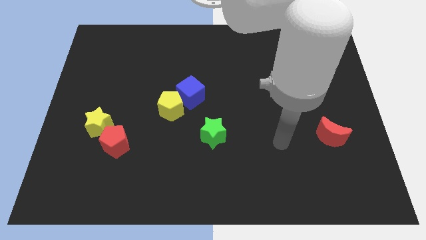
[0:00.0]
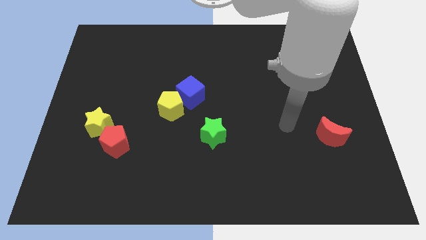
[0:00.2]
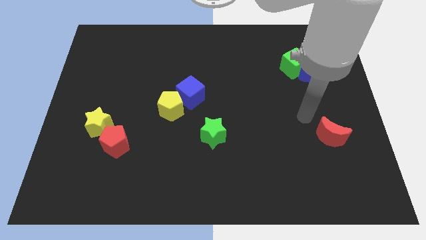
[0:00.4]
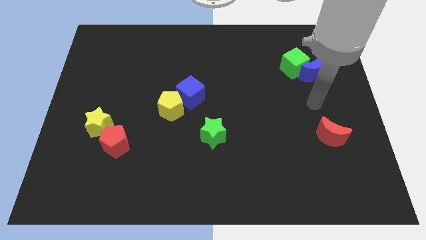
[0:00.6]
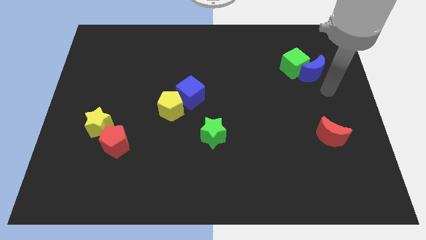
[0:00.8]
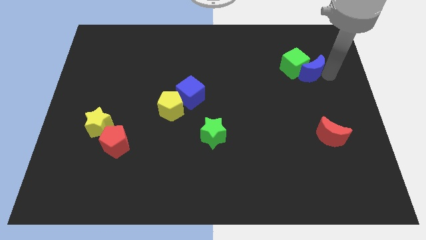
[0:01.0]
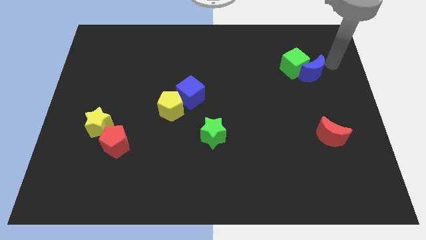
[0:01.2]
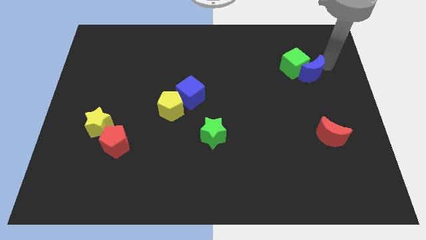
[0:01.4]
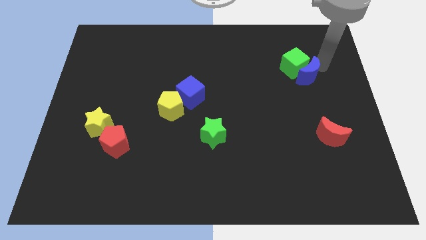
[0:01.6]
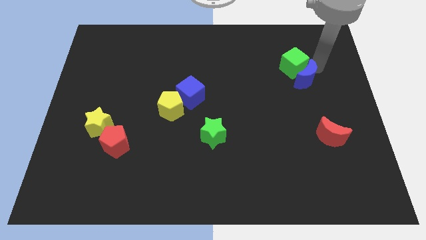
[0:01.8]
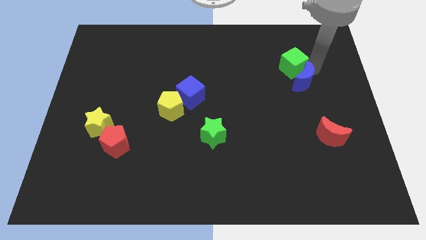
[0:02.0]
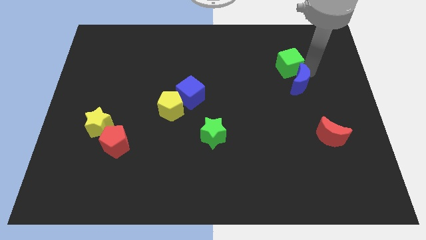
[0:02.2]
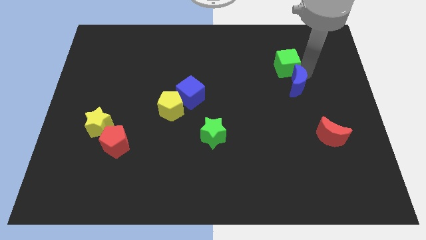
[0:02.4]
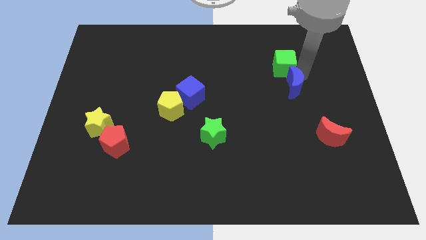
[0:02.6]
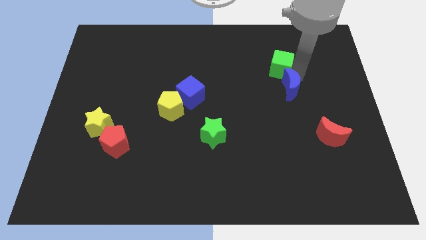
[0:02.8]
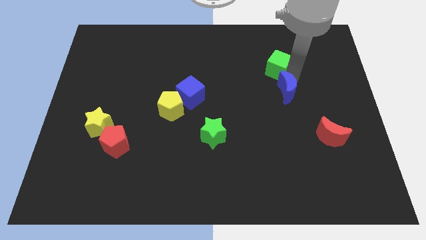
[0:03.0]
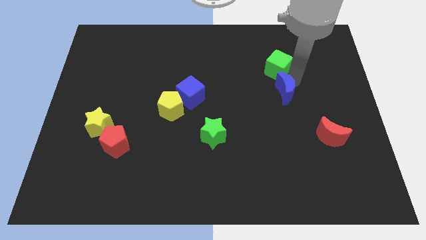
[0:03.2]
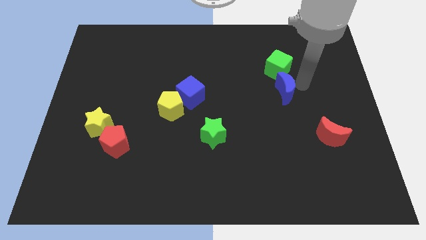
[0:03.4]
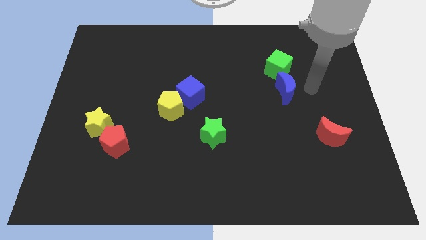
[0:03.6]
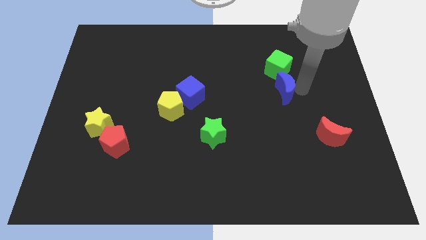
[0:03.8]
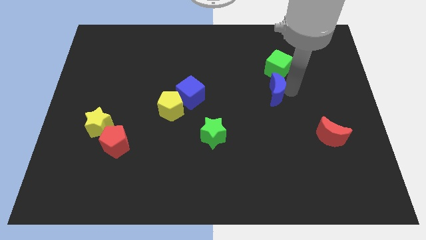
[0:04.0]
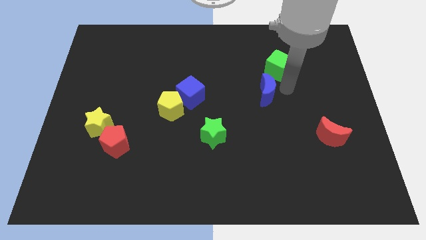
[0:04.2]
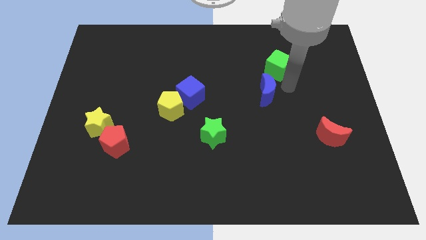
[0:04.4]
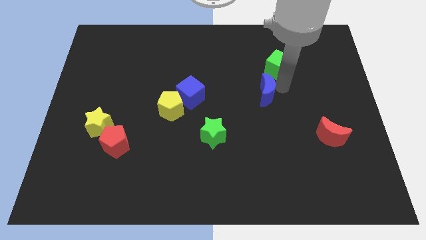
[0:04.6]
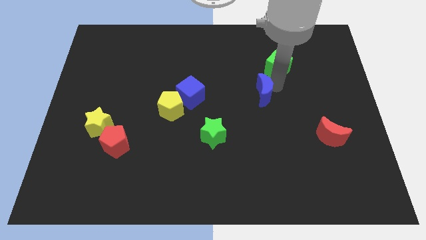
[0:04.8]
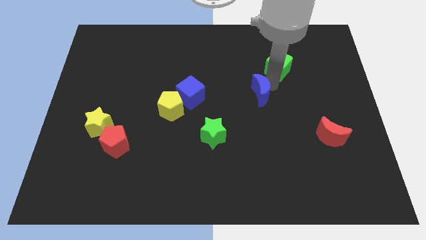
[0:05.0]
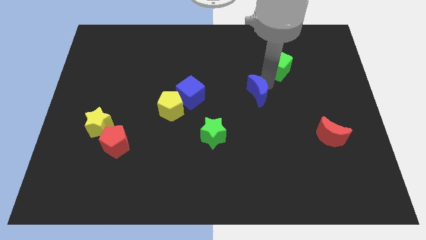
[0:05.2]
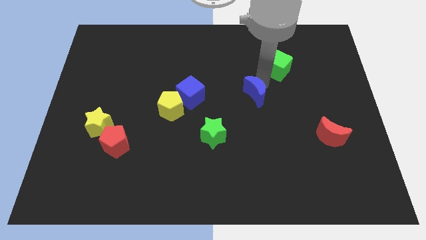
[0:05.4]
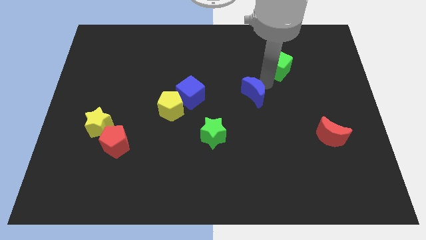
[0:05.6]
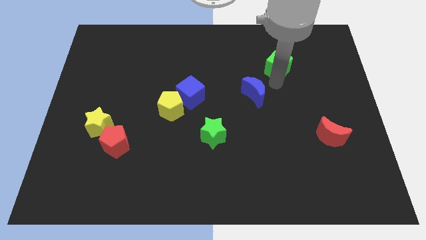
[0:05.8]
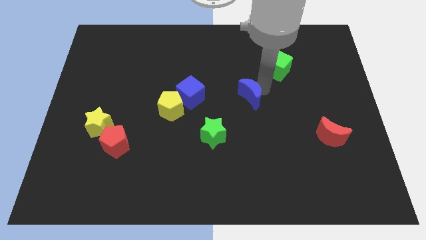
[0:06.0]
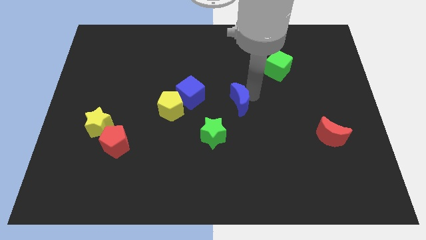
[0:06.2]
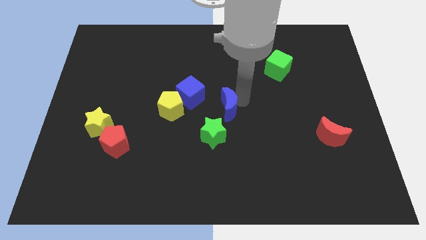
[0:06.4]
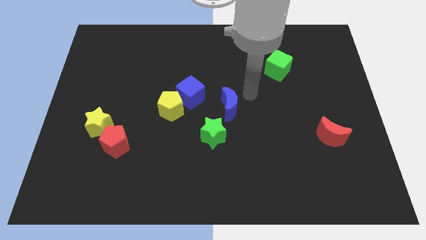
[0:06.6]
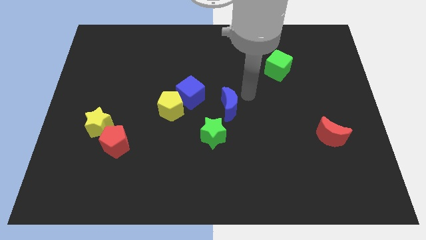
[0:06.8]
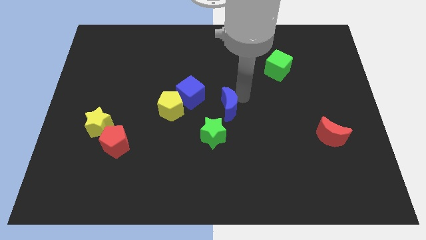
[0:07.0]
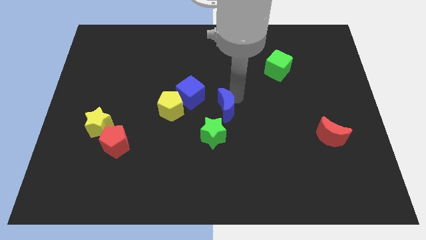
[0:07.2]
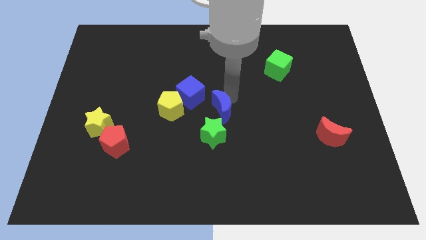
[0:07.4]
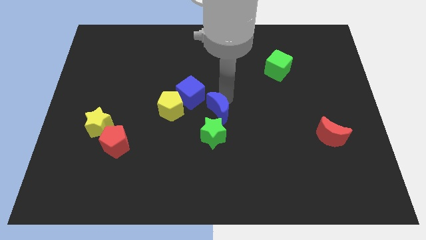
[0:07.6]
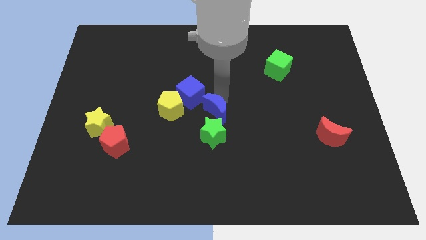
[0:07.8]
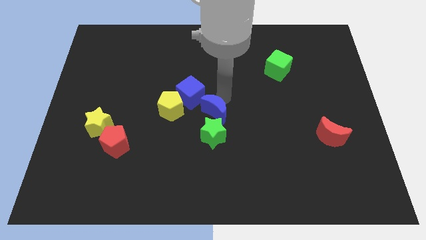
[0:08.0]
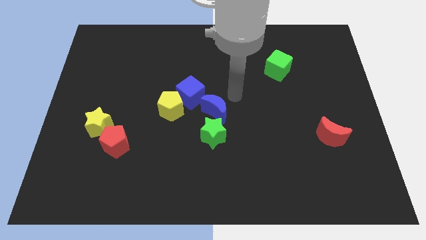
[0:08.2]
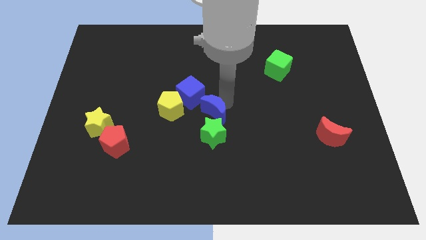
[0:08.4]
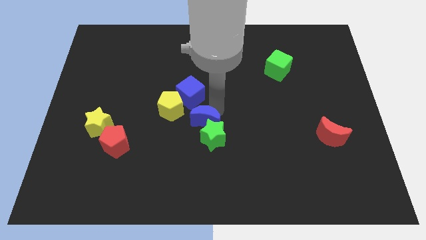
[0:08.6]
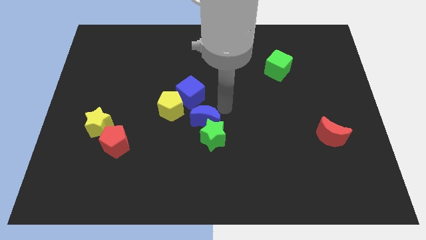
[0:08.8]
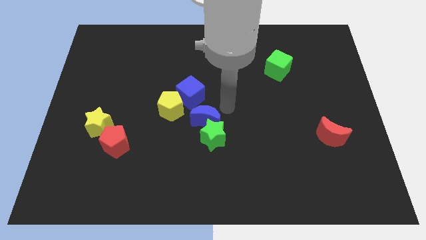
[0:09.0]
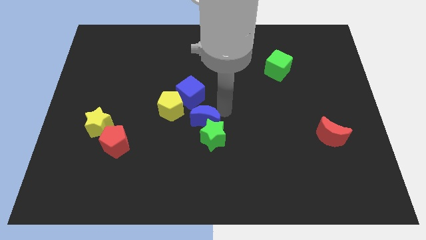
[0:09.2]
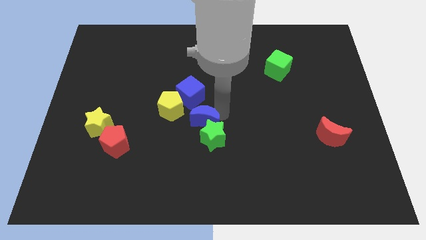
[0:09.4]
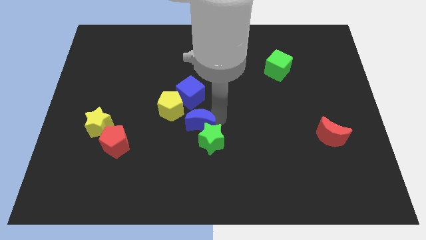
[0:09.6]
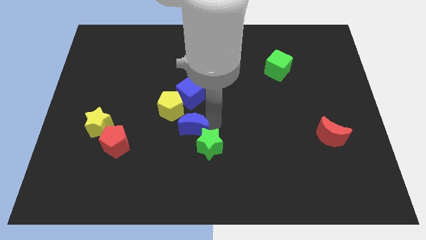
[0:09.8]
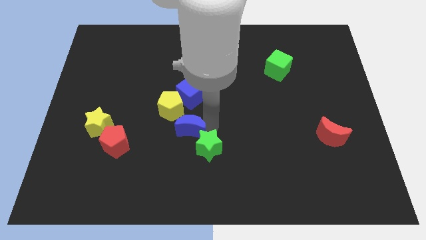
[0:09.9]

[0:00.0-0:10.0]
push the blue moon to the bottom side of the yellow pentagon

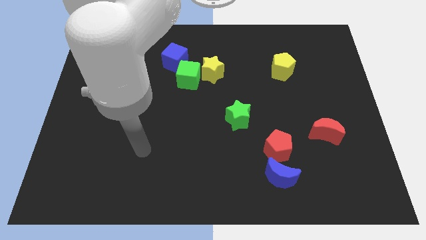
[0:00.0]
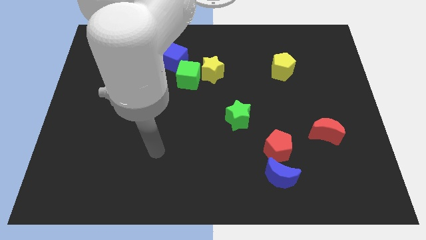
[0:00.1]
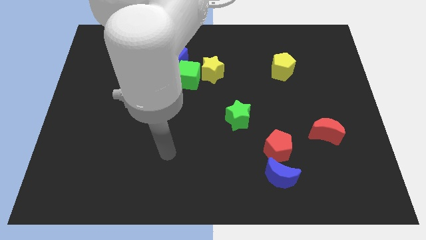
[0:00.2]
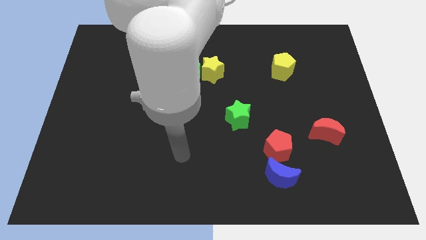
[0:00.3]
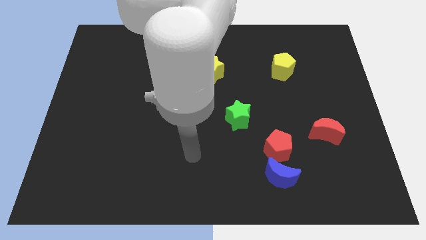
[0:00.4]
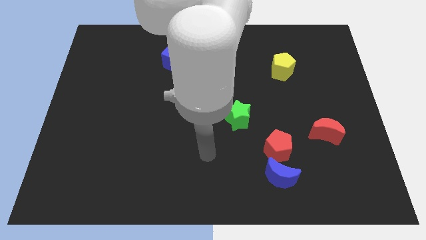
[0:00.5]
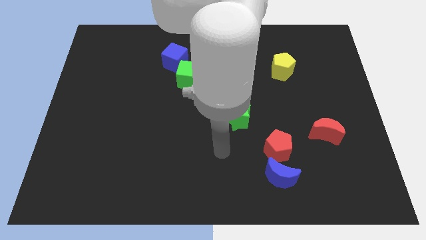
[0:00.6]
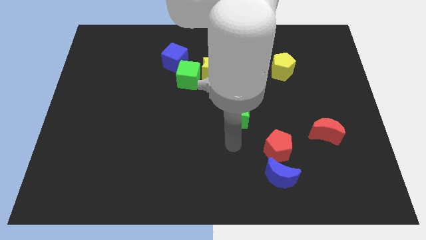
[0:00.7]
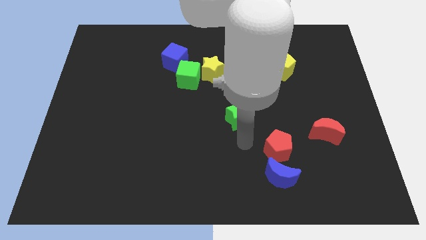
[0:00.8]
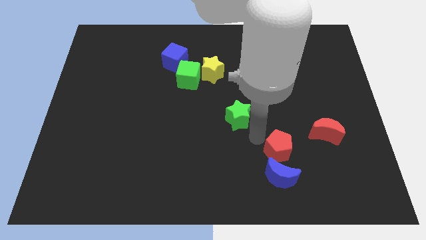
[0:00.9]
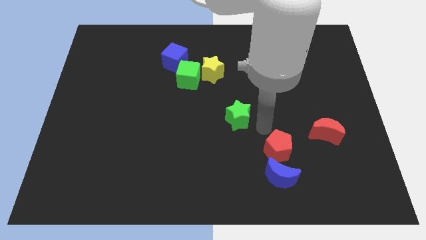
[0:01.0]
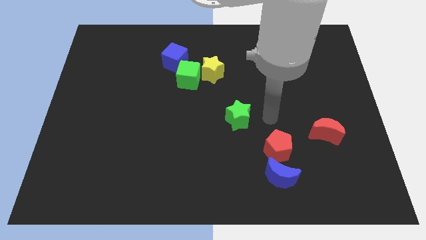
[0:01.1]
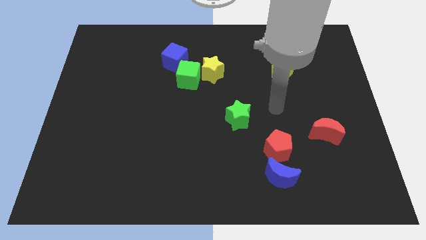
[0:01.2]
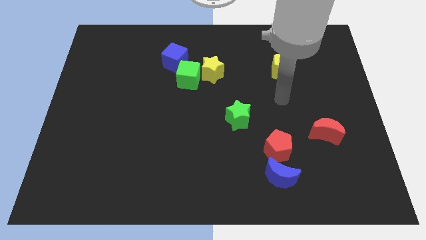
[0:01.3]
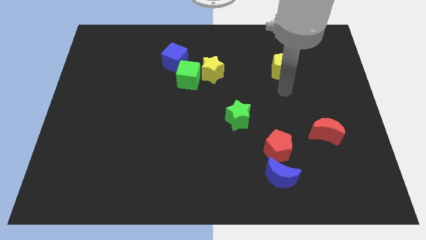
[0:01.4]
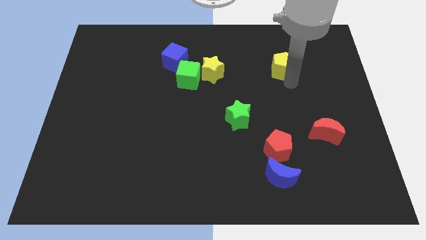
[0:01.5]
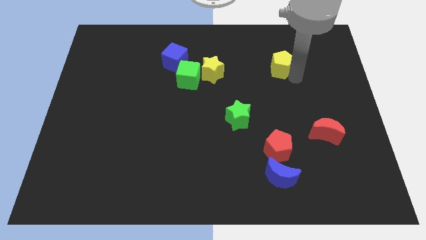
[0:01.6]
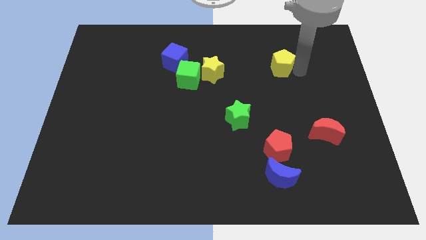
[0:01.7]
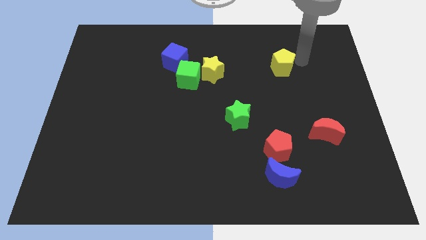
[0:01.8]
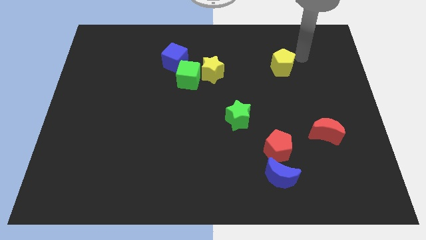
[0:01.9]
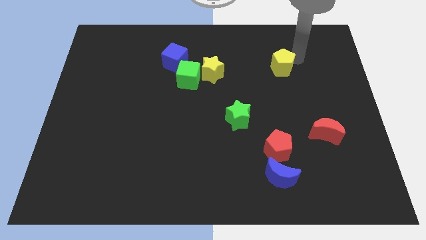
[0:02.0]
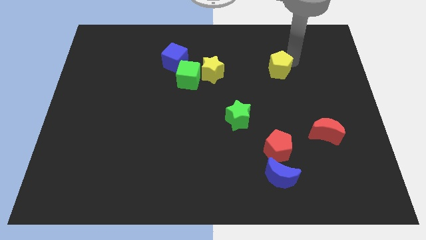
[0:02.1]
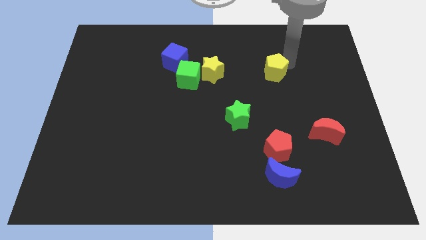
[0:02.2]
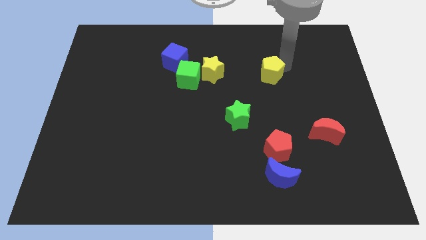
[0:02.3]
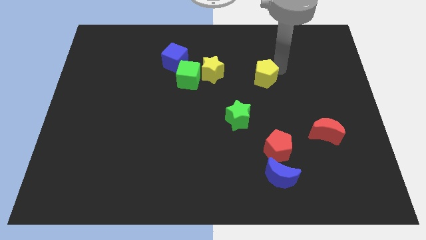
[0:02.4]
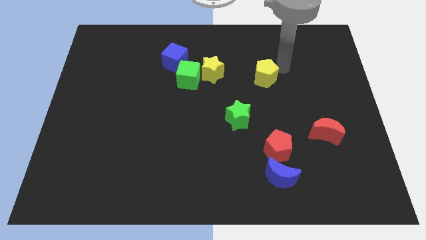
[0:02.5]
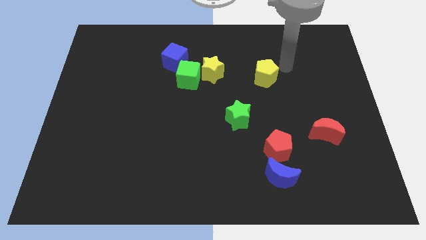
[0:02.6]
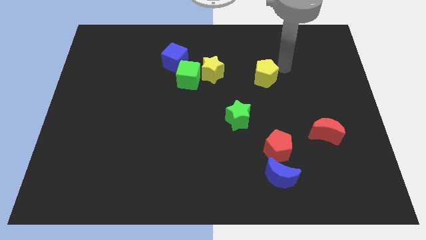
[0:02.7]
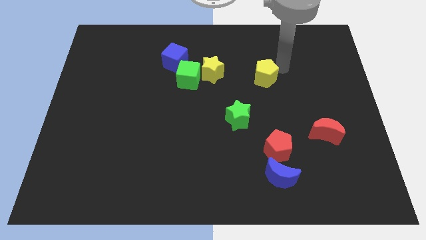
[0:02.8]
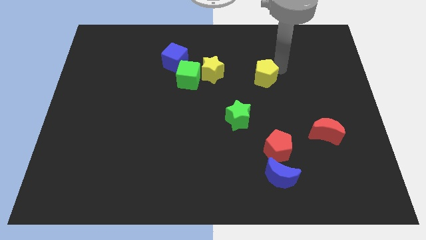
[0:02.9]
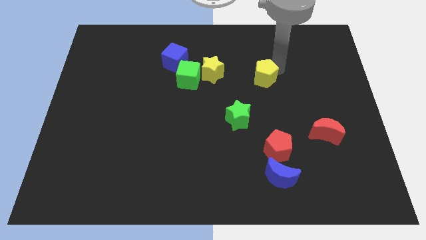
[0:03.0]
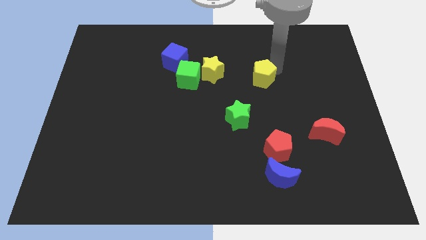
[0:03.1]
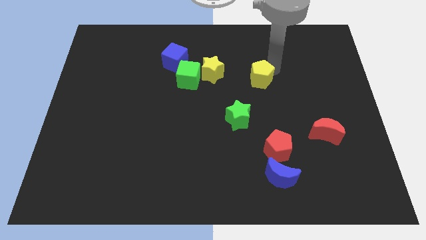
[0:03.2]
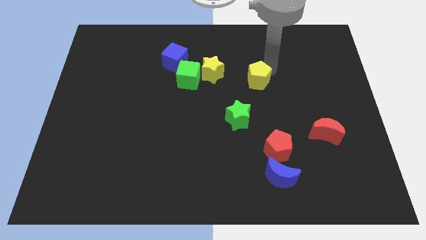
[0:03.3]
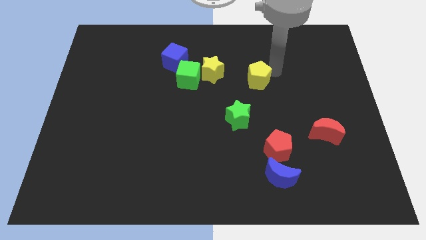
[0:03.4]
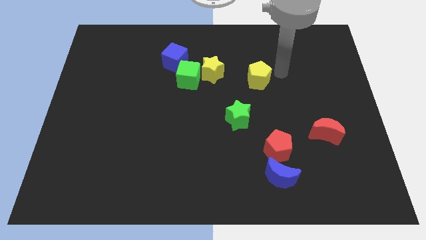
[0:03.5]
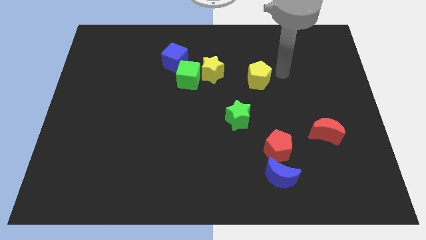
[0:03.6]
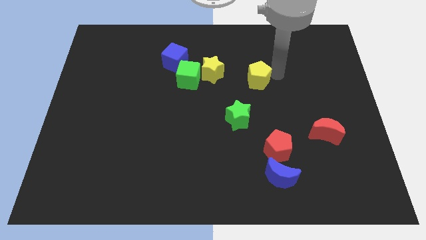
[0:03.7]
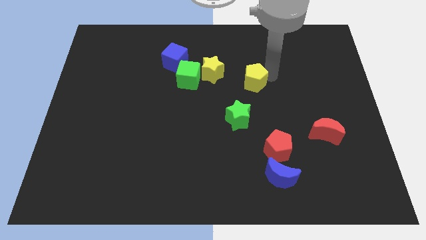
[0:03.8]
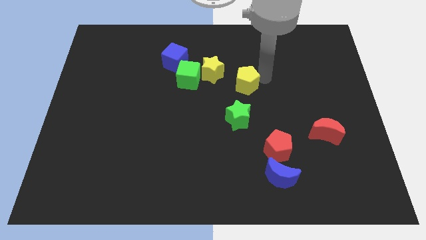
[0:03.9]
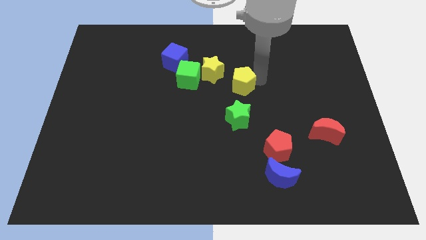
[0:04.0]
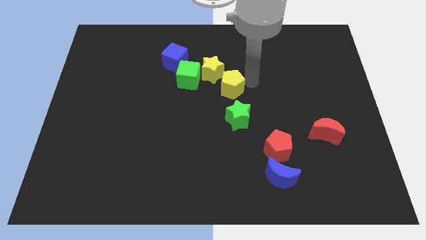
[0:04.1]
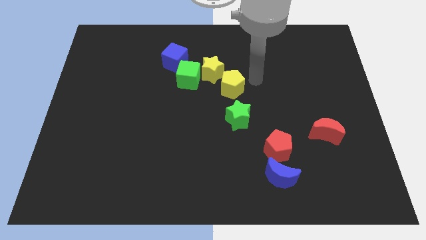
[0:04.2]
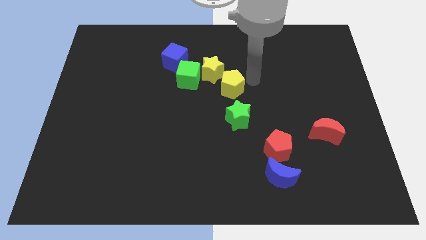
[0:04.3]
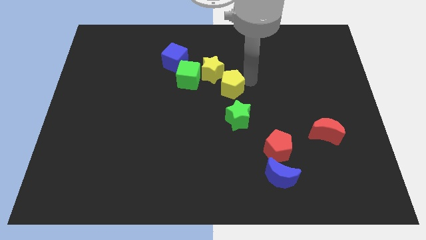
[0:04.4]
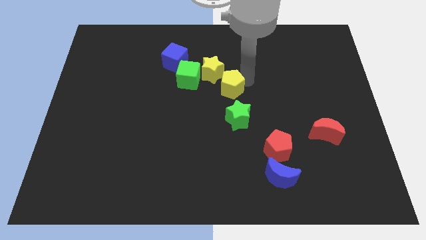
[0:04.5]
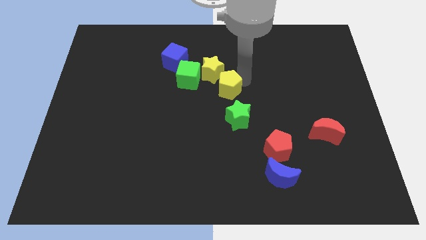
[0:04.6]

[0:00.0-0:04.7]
put the yellow pentagon to the bottom right side of the green cube
